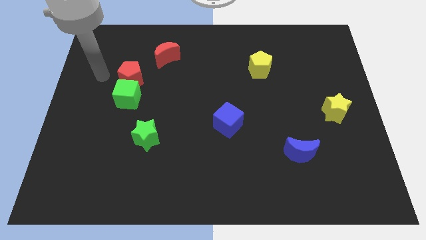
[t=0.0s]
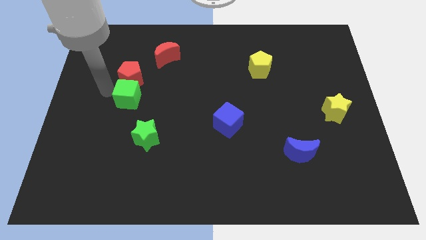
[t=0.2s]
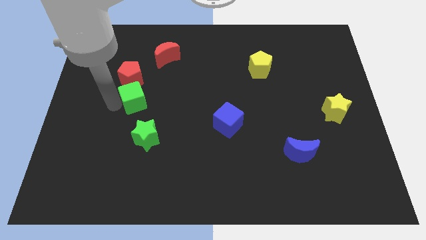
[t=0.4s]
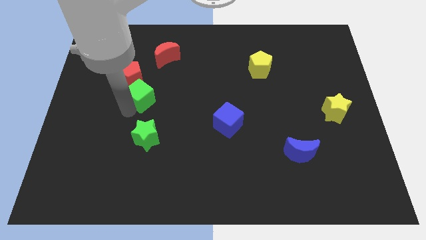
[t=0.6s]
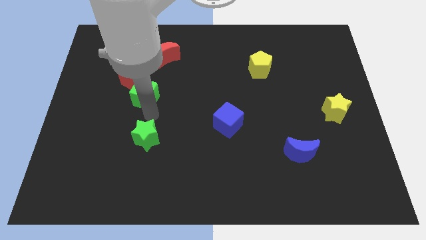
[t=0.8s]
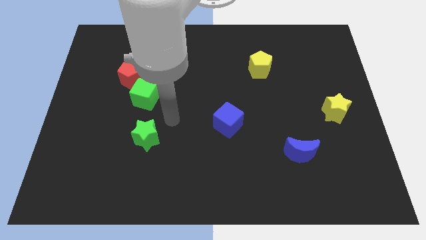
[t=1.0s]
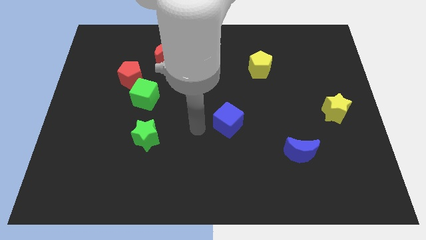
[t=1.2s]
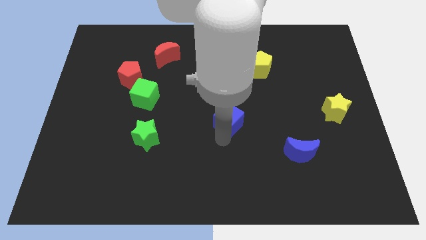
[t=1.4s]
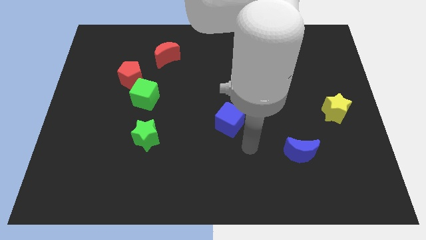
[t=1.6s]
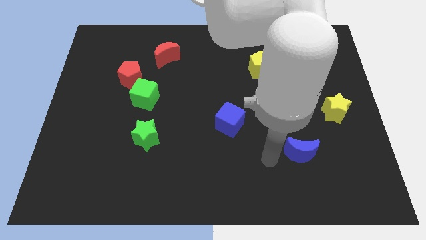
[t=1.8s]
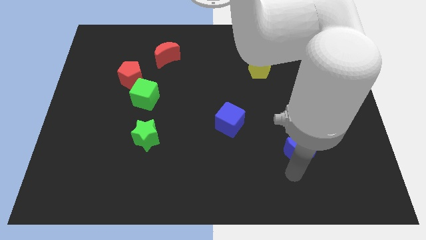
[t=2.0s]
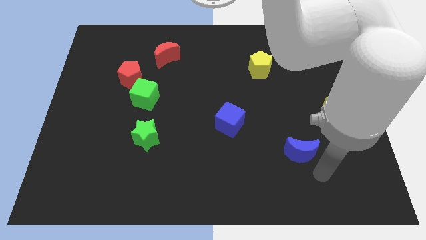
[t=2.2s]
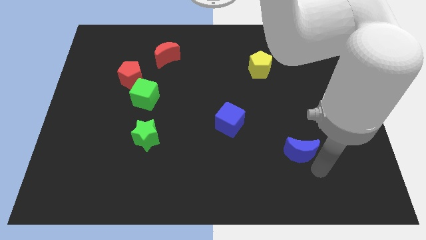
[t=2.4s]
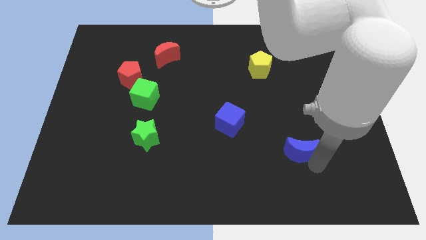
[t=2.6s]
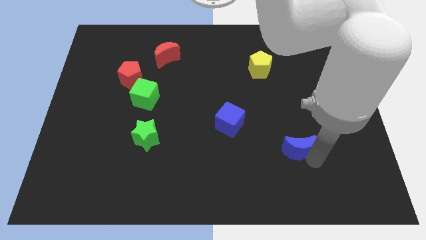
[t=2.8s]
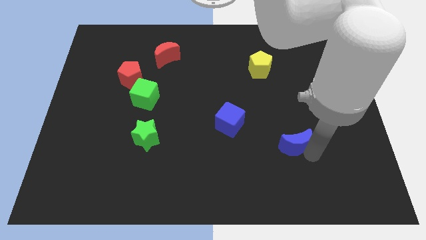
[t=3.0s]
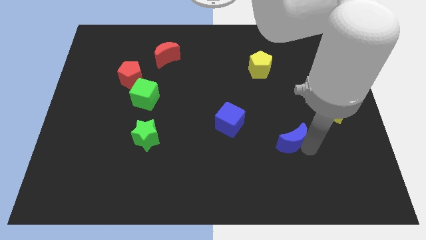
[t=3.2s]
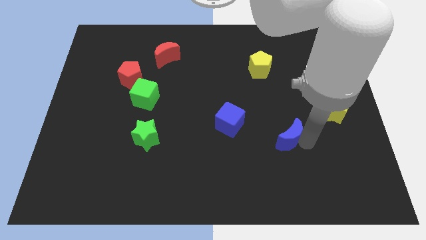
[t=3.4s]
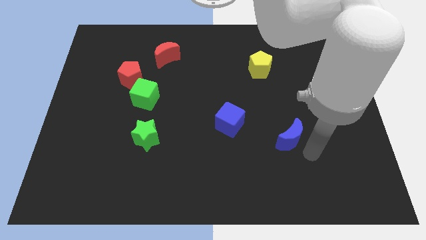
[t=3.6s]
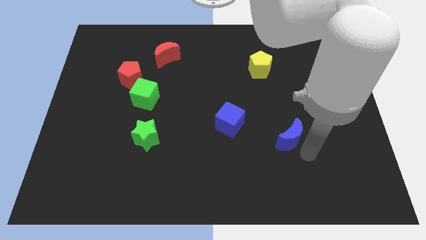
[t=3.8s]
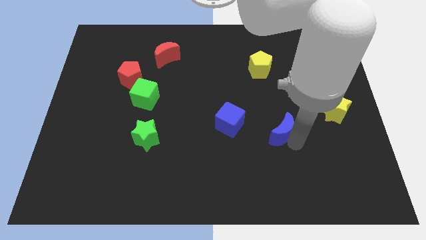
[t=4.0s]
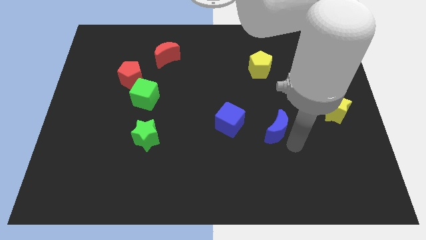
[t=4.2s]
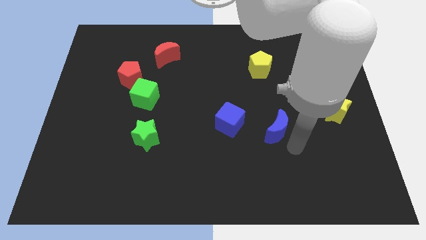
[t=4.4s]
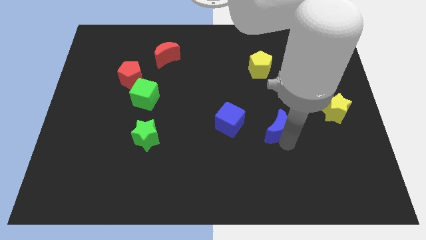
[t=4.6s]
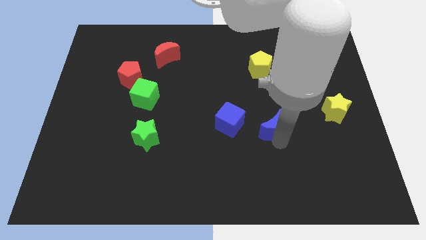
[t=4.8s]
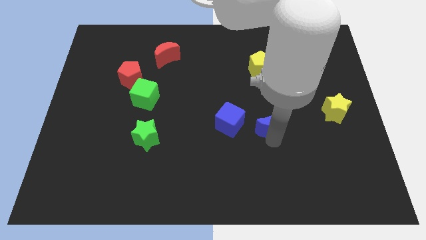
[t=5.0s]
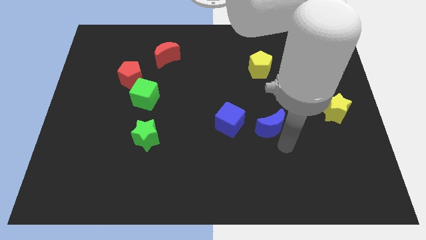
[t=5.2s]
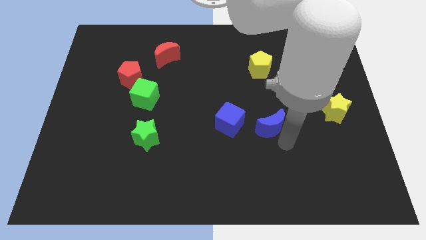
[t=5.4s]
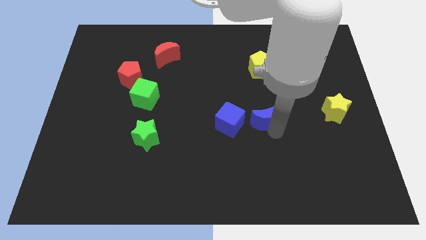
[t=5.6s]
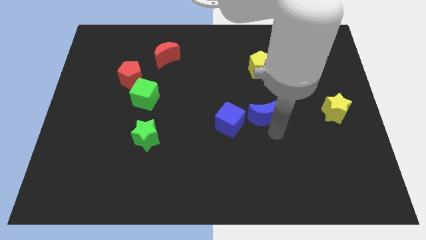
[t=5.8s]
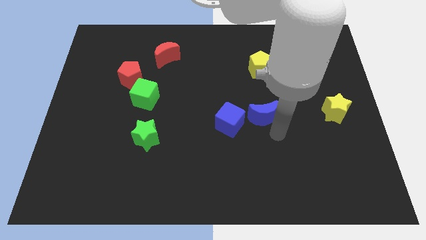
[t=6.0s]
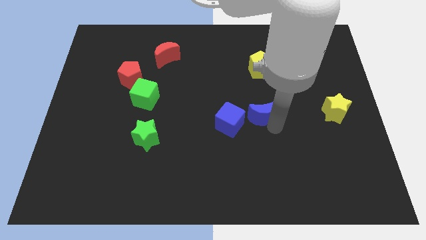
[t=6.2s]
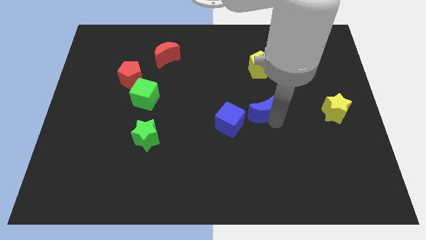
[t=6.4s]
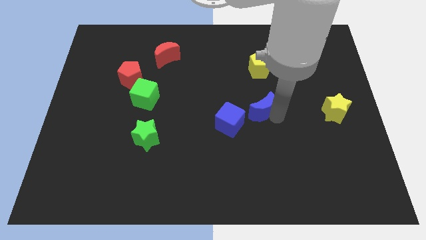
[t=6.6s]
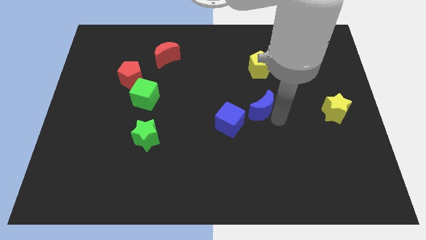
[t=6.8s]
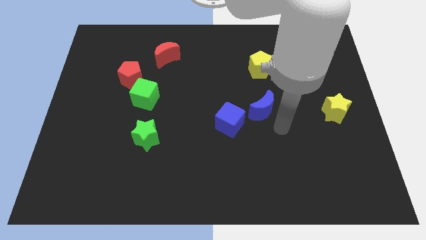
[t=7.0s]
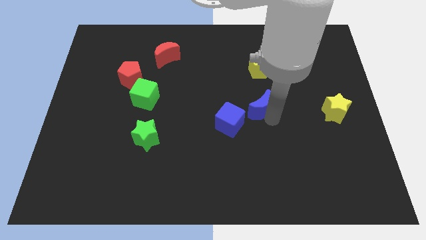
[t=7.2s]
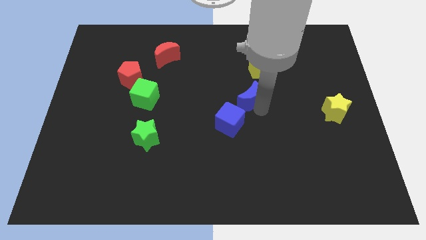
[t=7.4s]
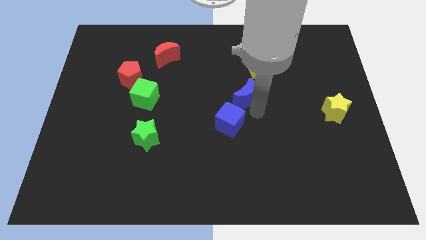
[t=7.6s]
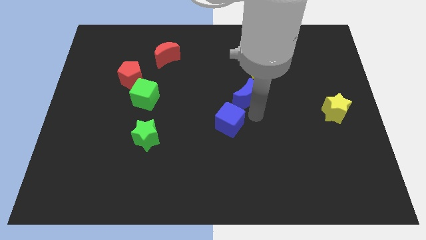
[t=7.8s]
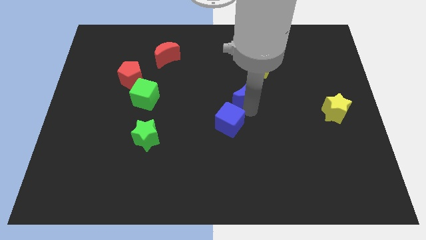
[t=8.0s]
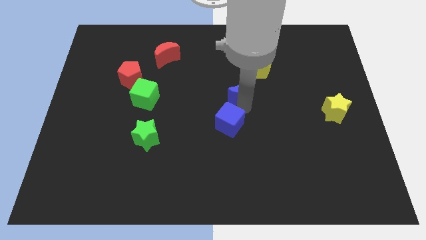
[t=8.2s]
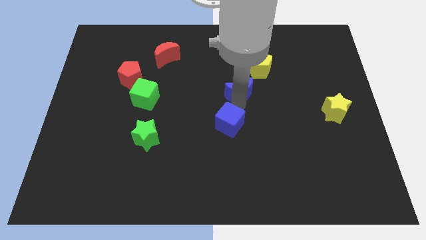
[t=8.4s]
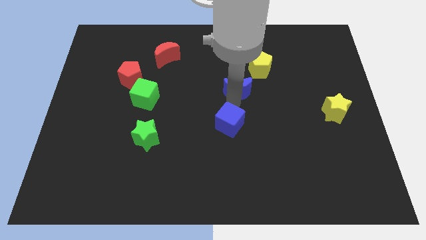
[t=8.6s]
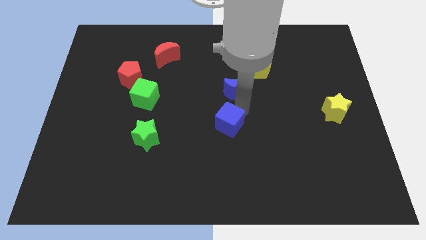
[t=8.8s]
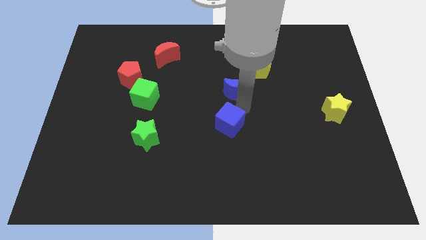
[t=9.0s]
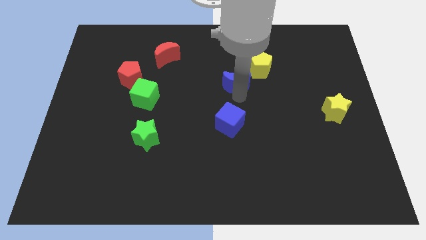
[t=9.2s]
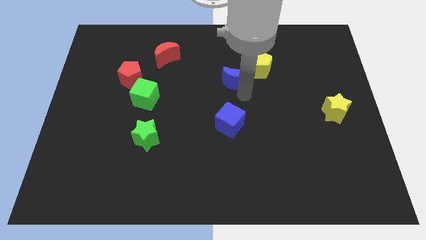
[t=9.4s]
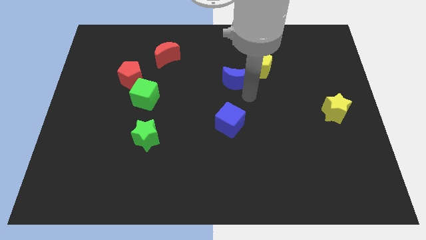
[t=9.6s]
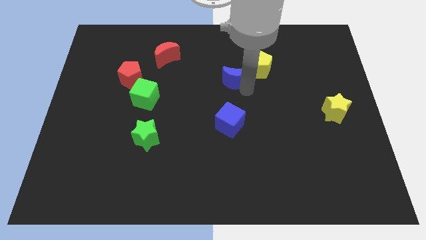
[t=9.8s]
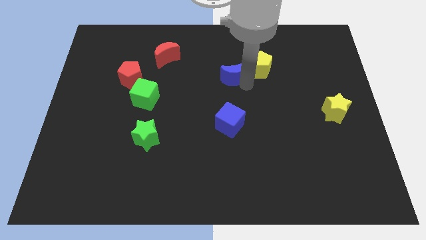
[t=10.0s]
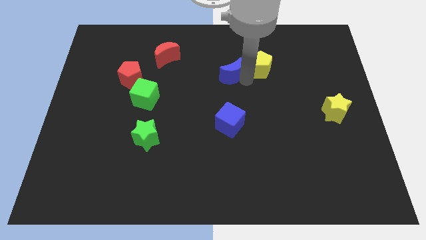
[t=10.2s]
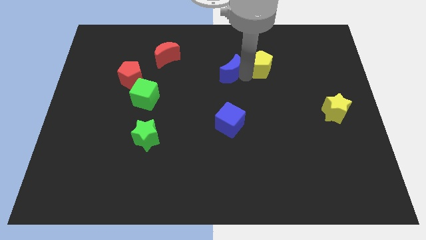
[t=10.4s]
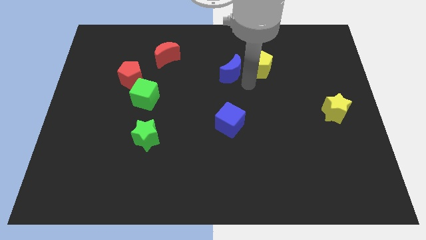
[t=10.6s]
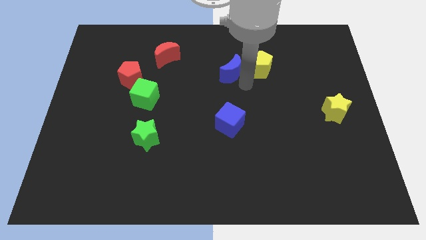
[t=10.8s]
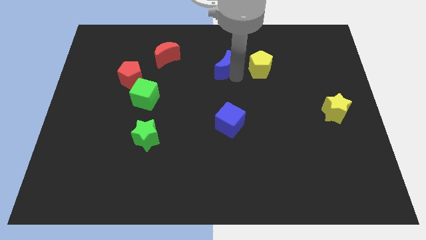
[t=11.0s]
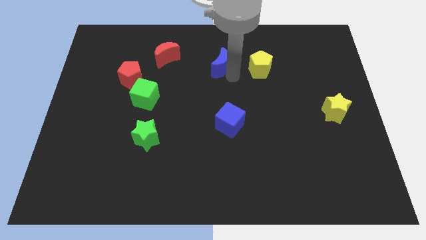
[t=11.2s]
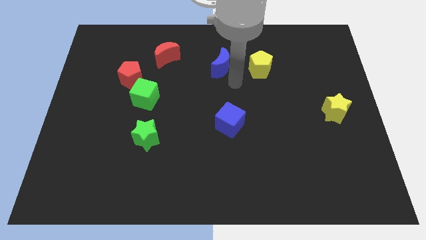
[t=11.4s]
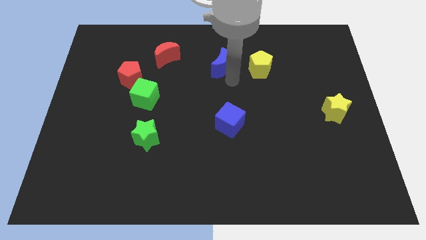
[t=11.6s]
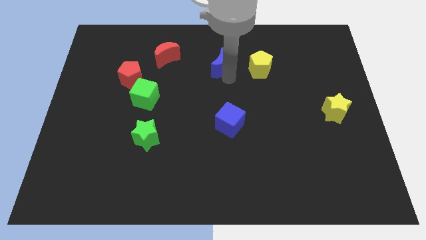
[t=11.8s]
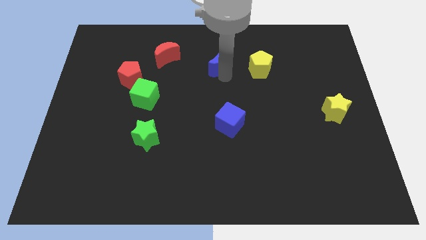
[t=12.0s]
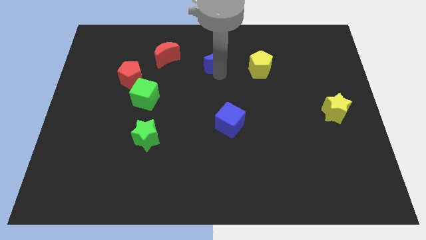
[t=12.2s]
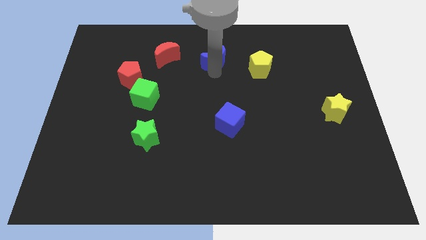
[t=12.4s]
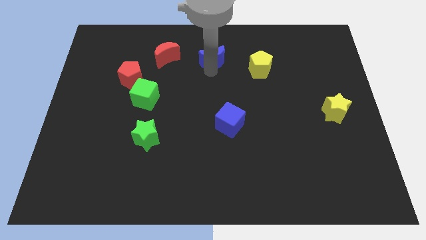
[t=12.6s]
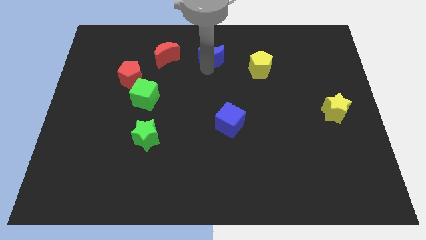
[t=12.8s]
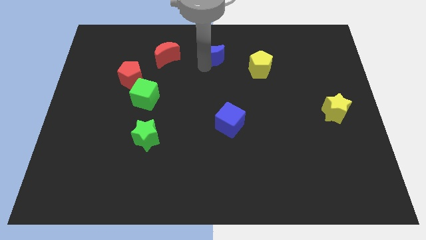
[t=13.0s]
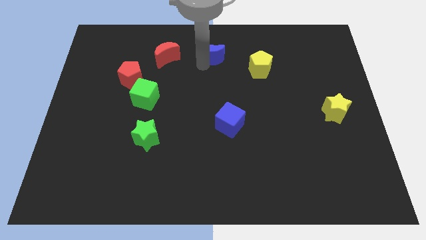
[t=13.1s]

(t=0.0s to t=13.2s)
move the blue moon to the top side

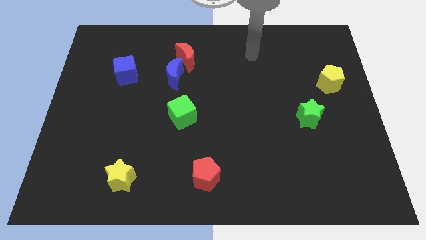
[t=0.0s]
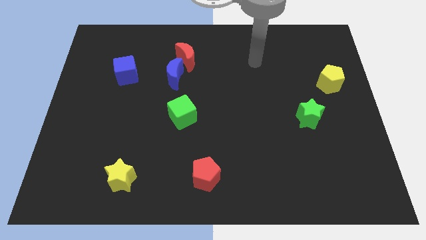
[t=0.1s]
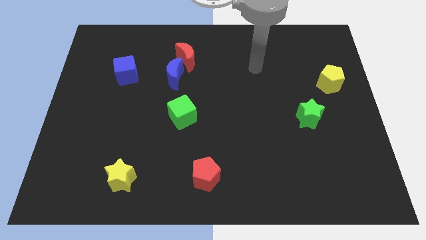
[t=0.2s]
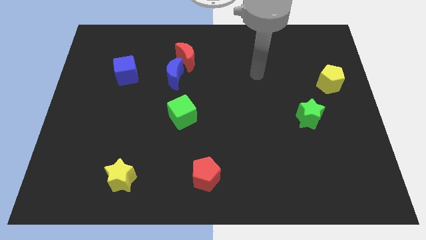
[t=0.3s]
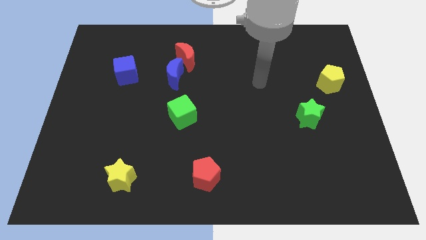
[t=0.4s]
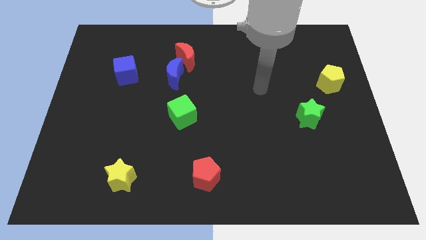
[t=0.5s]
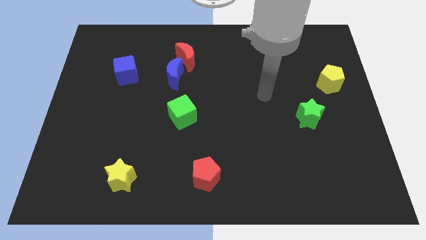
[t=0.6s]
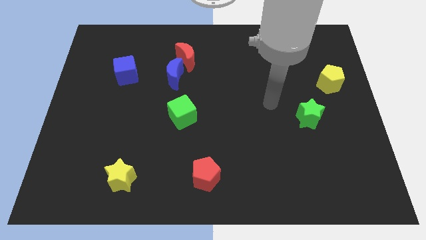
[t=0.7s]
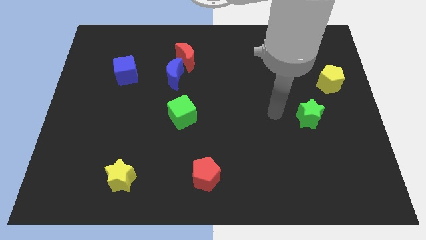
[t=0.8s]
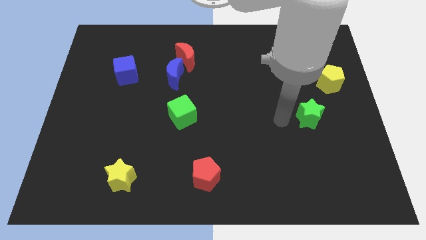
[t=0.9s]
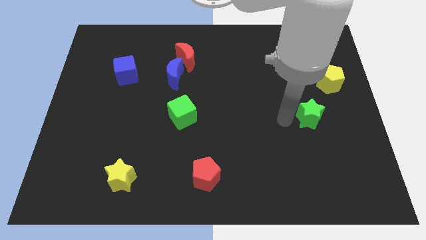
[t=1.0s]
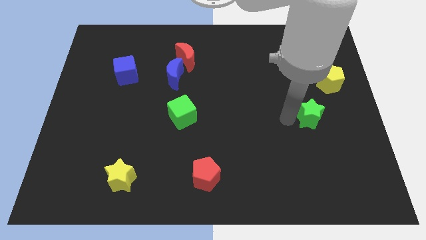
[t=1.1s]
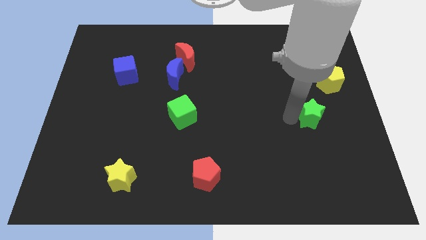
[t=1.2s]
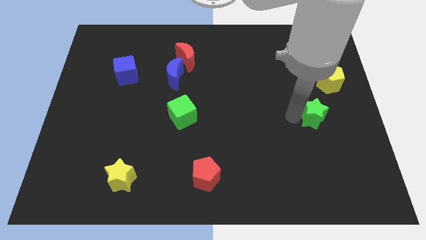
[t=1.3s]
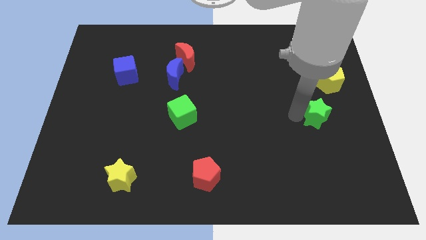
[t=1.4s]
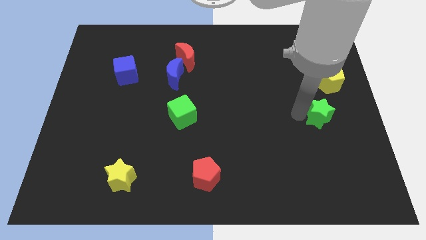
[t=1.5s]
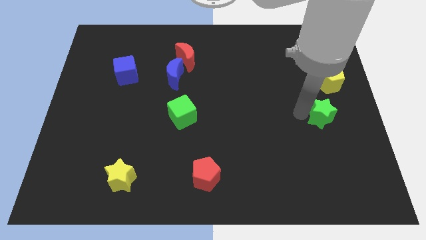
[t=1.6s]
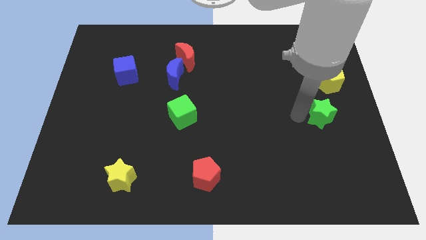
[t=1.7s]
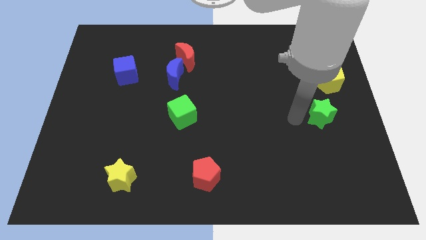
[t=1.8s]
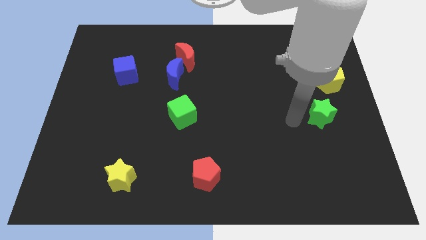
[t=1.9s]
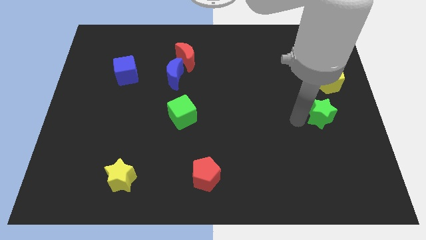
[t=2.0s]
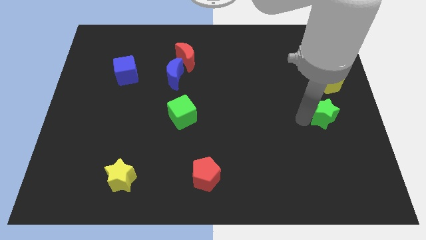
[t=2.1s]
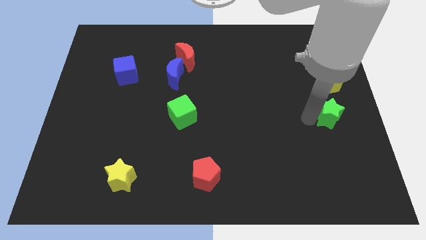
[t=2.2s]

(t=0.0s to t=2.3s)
slide the green star to the center right
